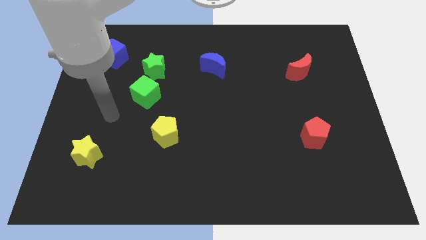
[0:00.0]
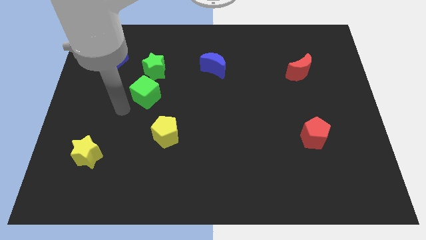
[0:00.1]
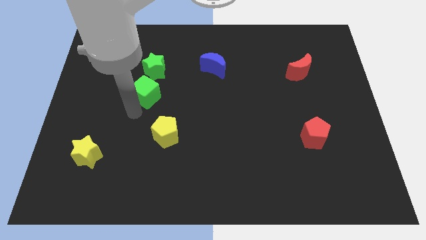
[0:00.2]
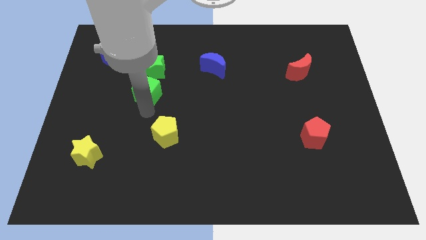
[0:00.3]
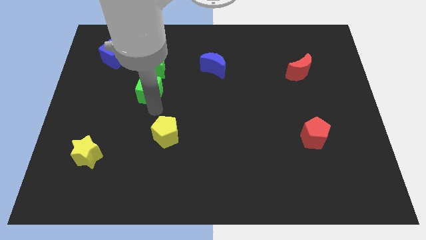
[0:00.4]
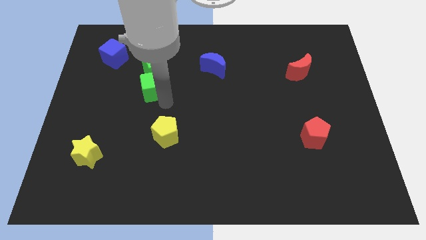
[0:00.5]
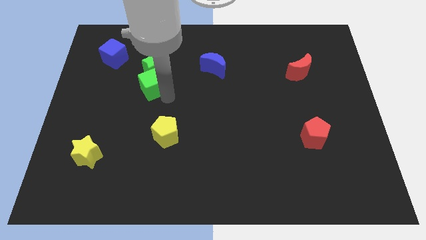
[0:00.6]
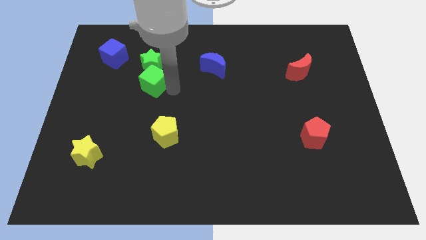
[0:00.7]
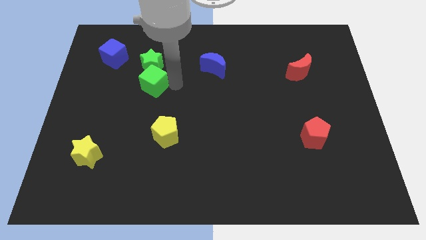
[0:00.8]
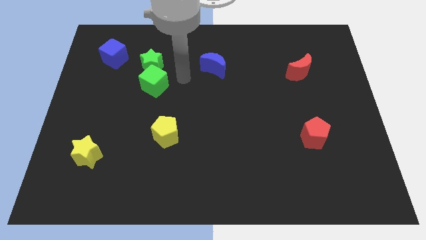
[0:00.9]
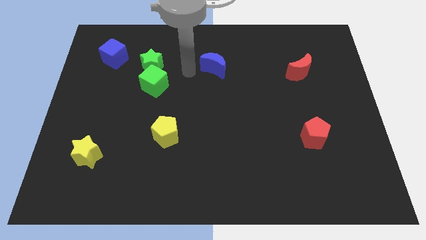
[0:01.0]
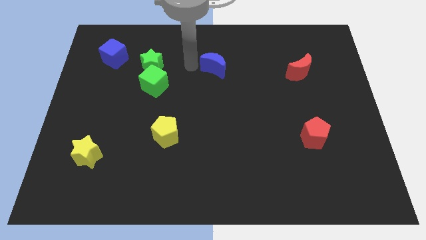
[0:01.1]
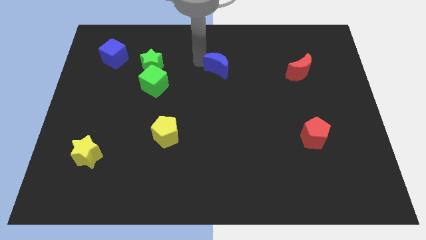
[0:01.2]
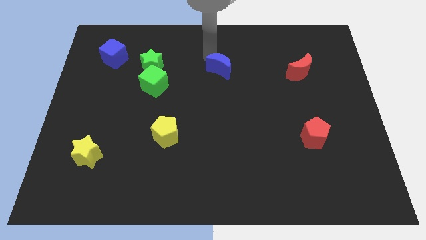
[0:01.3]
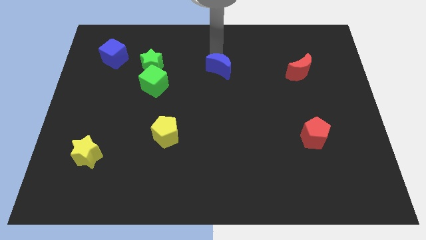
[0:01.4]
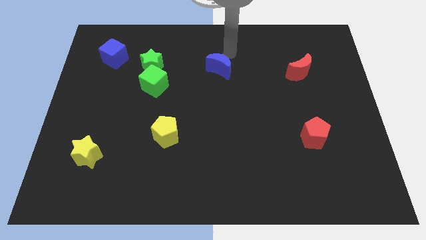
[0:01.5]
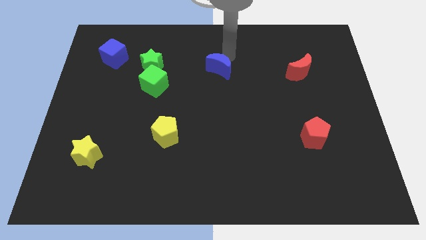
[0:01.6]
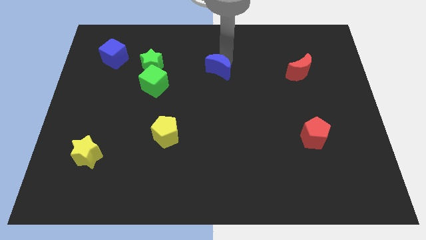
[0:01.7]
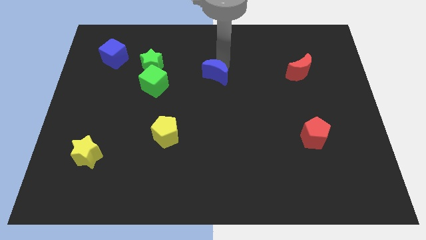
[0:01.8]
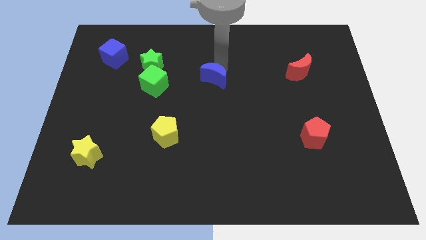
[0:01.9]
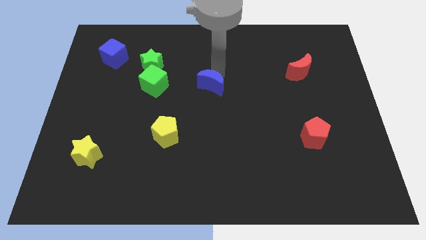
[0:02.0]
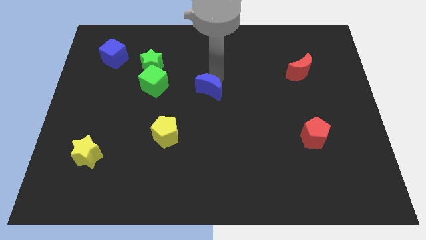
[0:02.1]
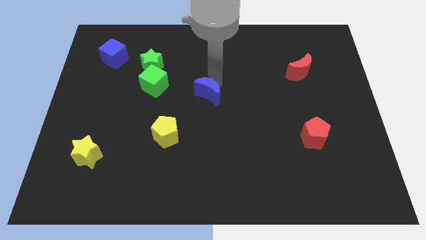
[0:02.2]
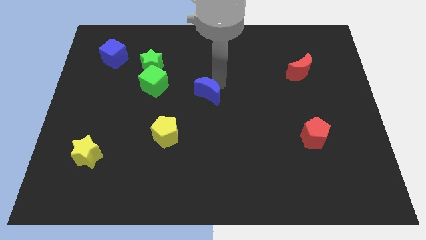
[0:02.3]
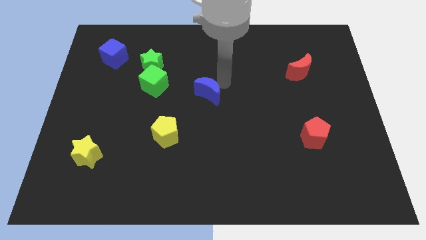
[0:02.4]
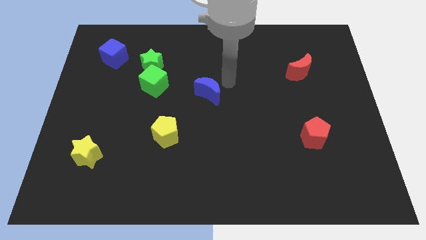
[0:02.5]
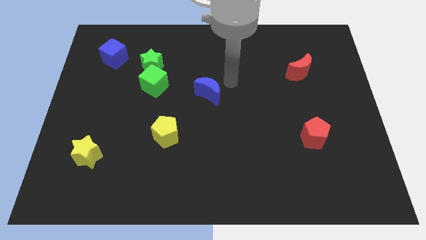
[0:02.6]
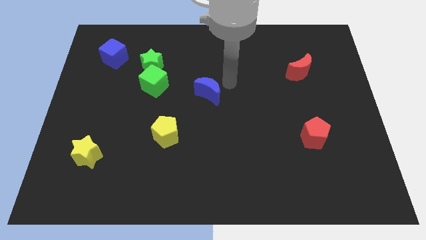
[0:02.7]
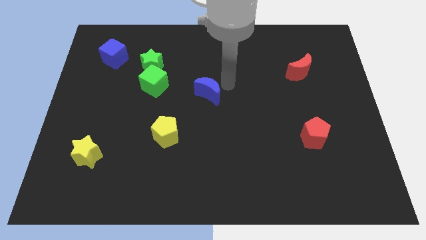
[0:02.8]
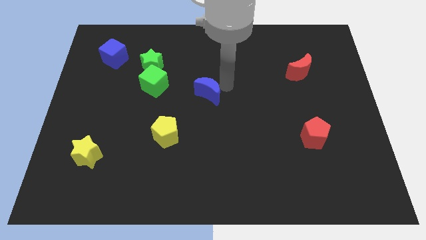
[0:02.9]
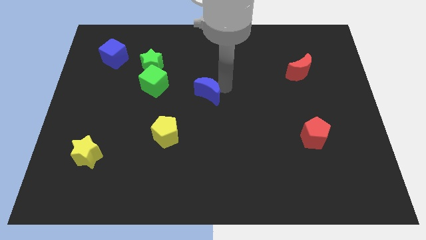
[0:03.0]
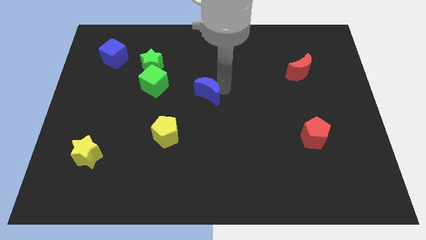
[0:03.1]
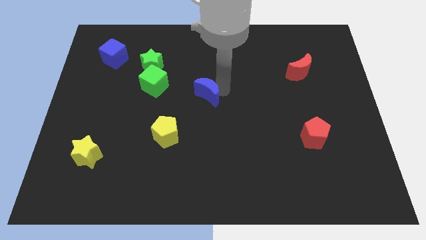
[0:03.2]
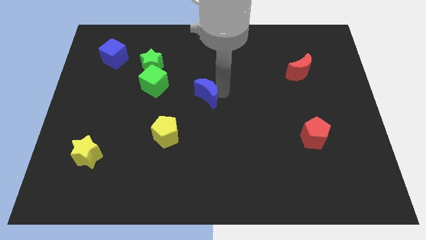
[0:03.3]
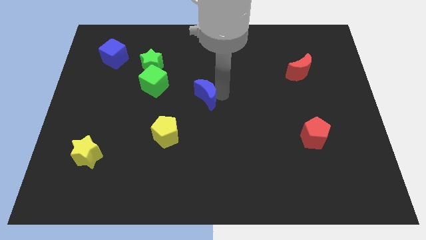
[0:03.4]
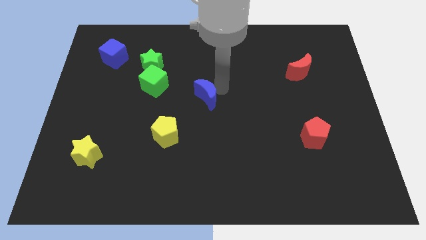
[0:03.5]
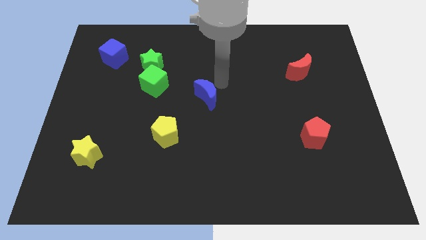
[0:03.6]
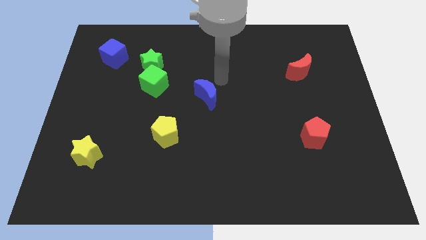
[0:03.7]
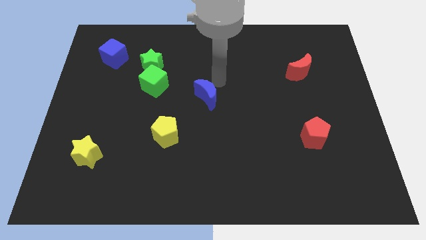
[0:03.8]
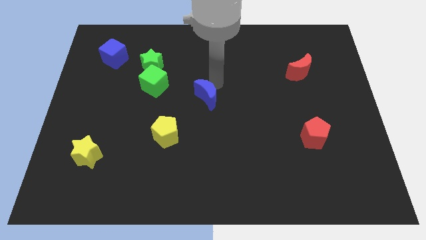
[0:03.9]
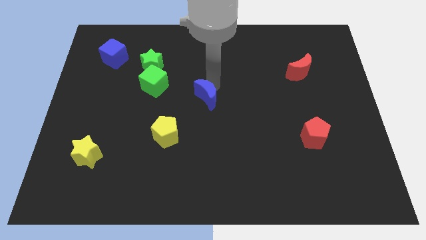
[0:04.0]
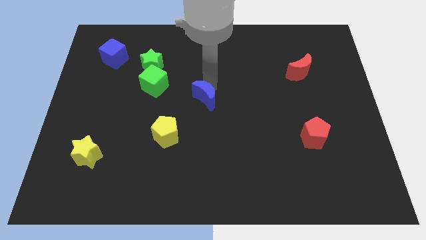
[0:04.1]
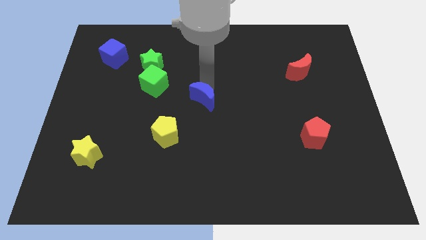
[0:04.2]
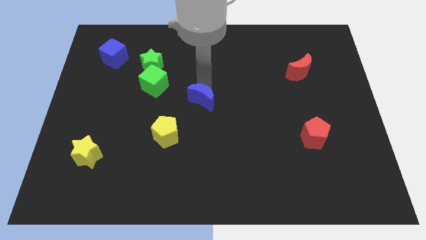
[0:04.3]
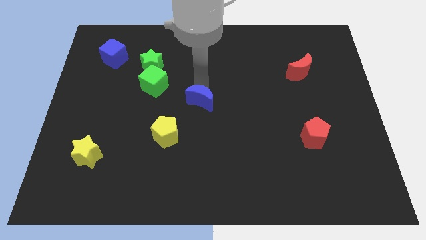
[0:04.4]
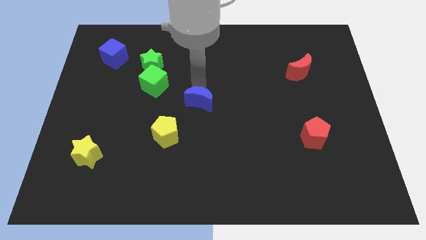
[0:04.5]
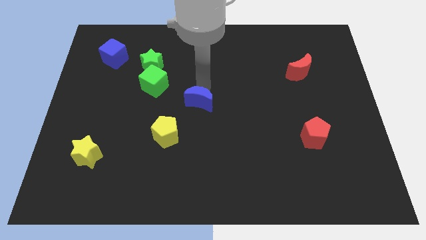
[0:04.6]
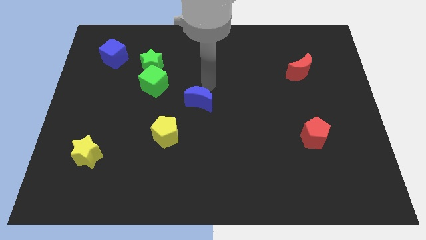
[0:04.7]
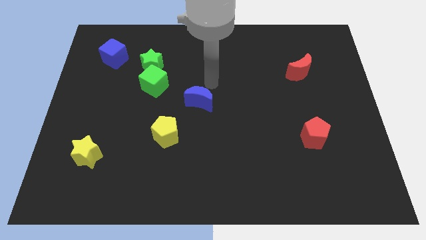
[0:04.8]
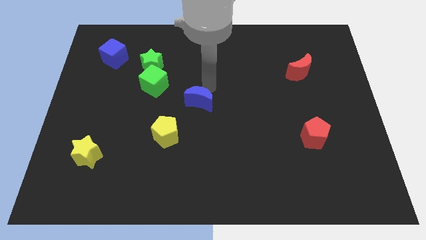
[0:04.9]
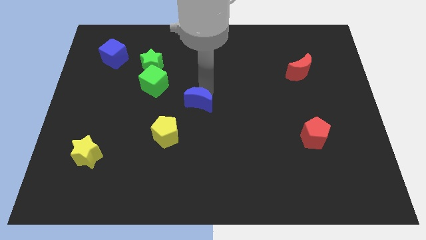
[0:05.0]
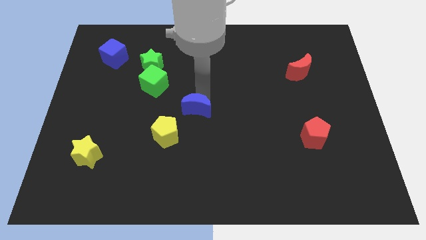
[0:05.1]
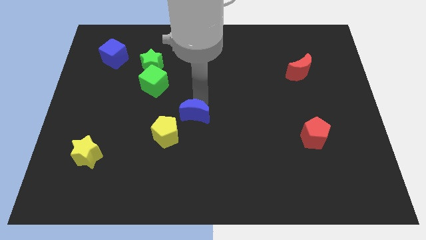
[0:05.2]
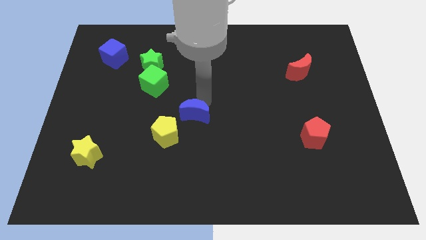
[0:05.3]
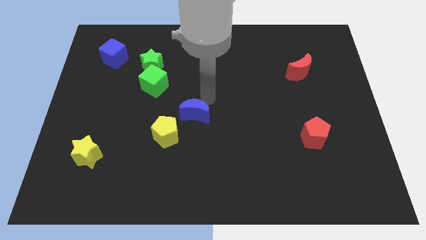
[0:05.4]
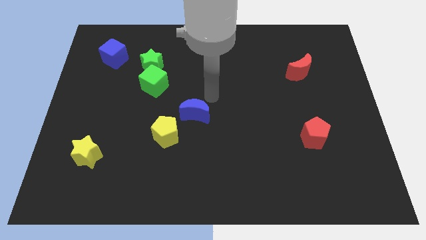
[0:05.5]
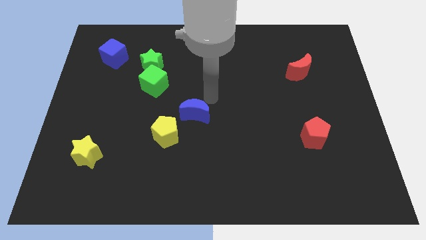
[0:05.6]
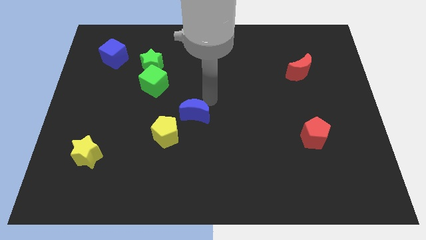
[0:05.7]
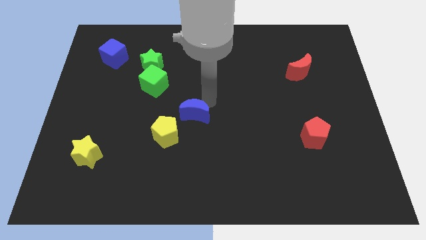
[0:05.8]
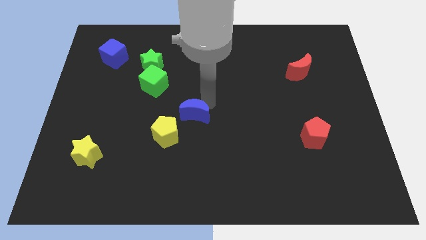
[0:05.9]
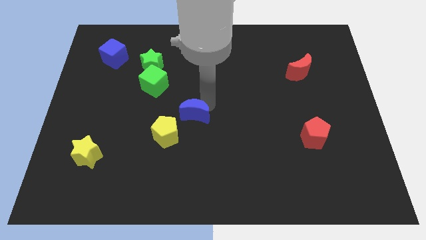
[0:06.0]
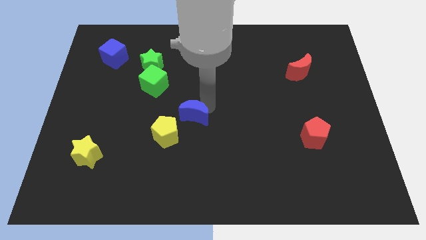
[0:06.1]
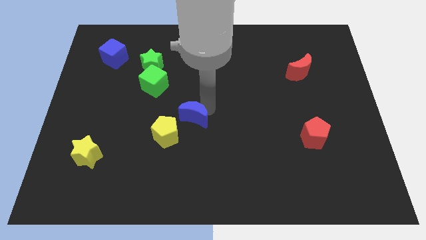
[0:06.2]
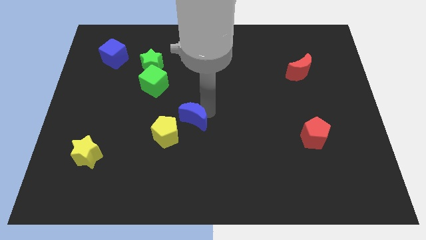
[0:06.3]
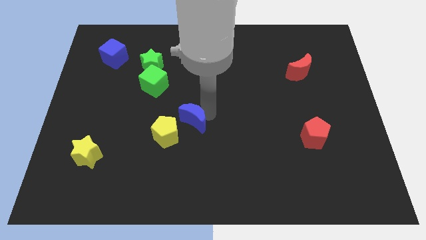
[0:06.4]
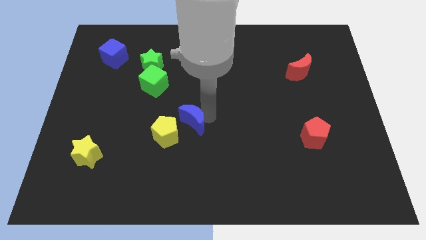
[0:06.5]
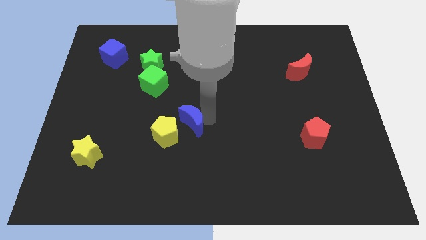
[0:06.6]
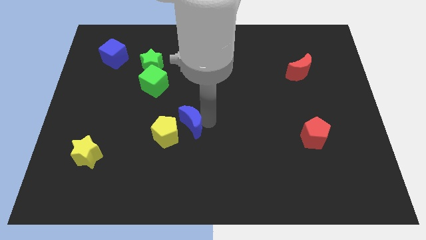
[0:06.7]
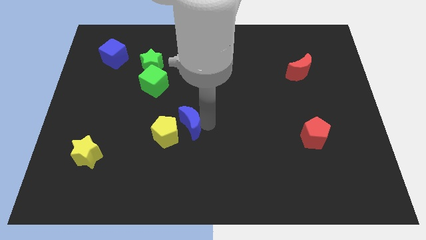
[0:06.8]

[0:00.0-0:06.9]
move the blue moon to the yellow pentagon
